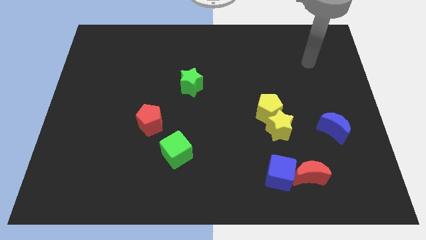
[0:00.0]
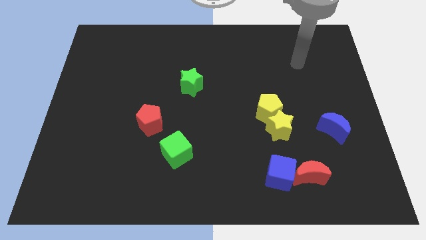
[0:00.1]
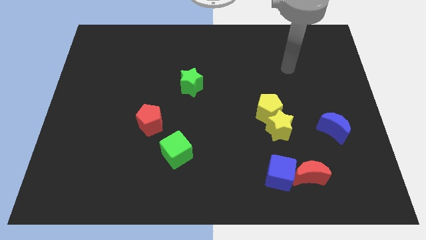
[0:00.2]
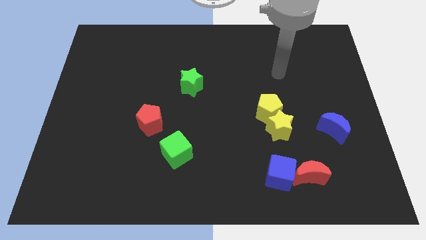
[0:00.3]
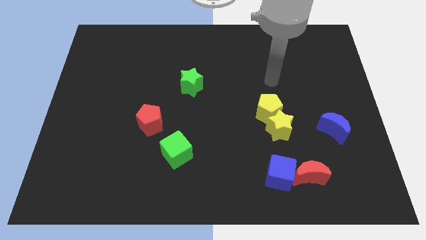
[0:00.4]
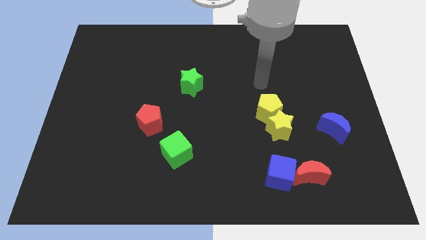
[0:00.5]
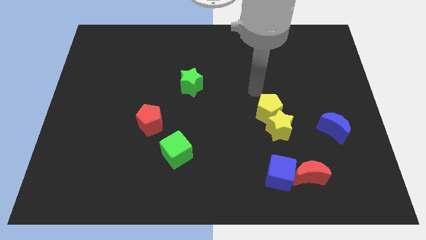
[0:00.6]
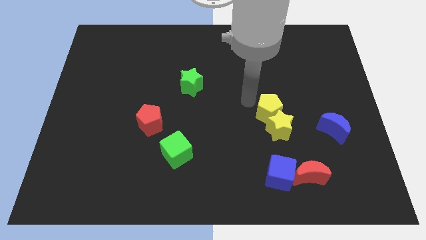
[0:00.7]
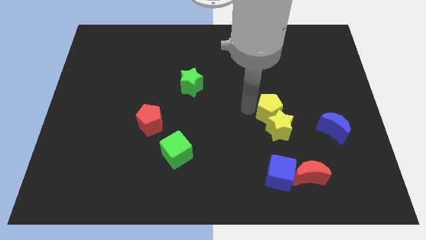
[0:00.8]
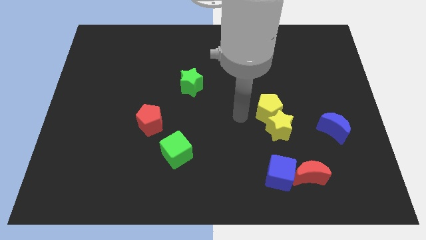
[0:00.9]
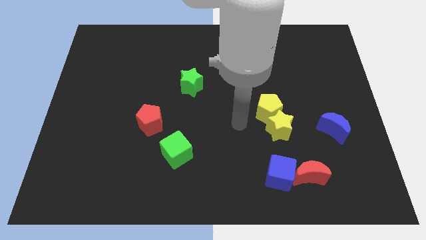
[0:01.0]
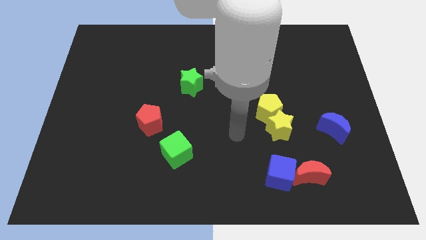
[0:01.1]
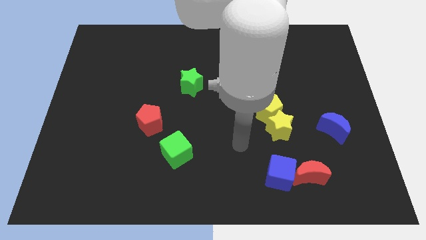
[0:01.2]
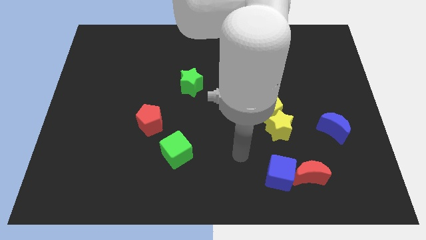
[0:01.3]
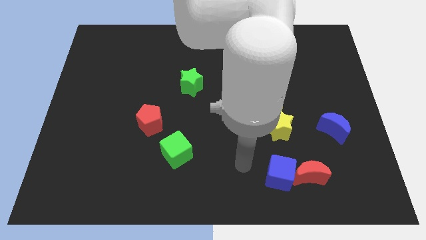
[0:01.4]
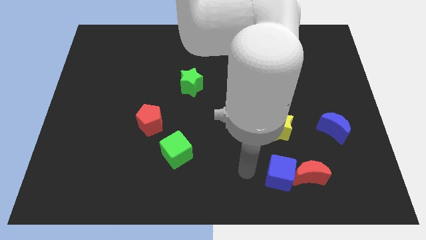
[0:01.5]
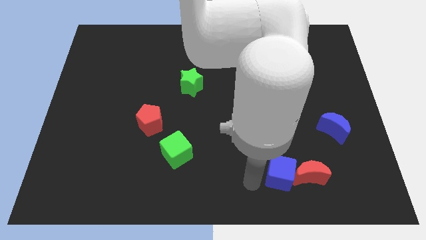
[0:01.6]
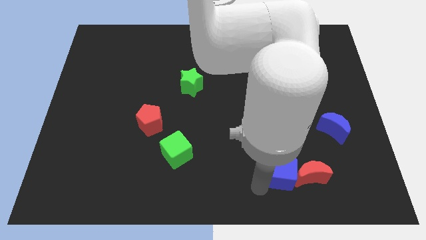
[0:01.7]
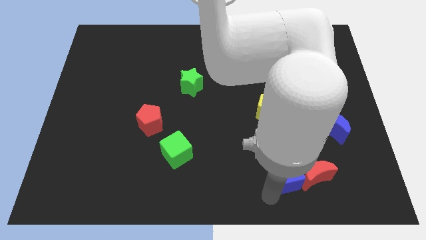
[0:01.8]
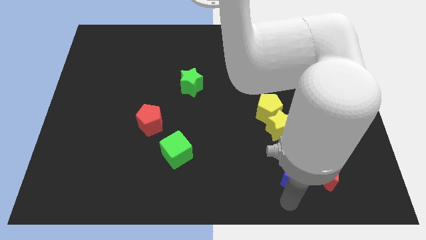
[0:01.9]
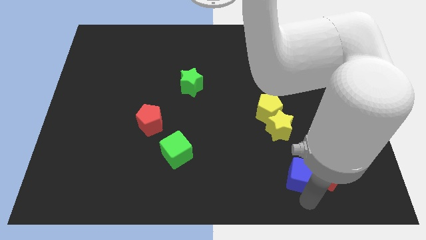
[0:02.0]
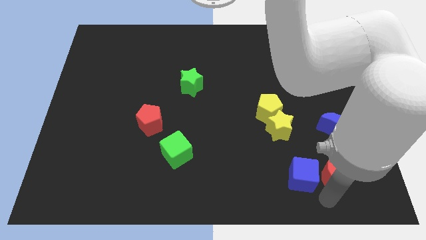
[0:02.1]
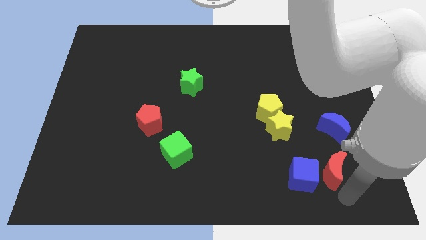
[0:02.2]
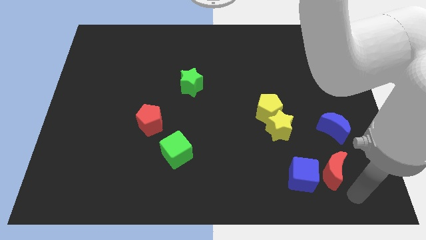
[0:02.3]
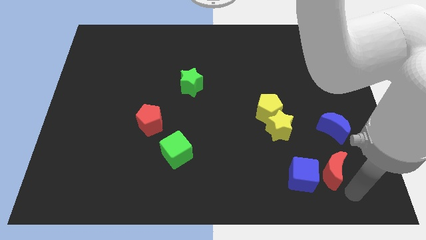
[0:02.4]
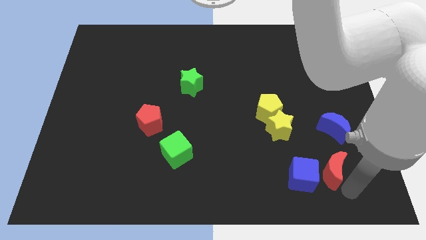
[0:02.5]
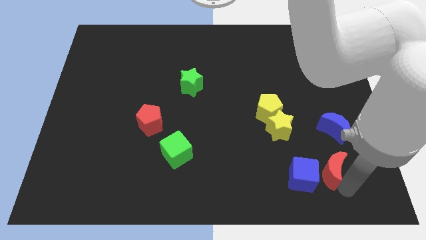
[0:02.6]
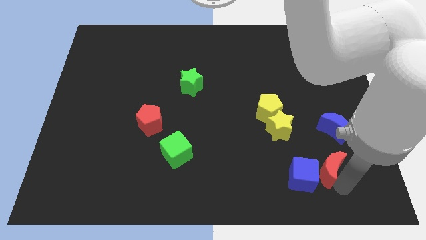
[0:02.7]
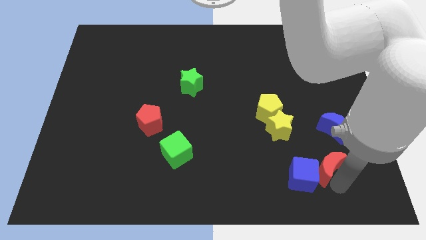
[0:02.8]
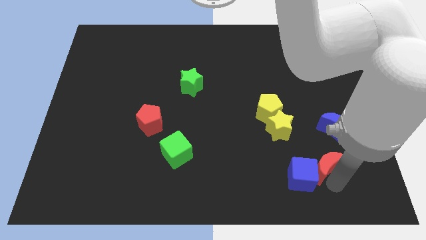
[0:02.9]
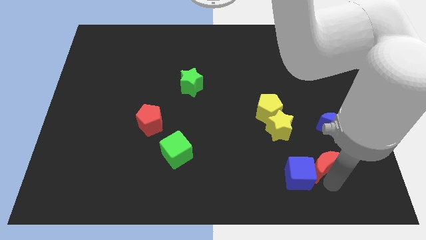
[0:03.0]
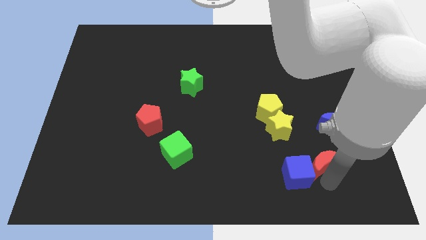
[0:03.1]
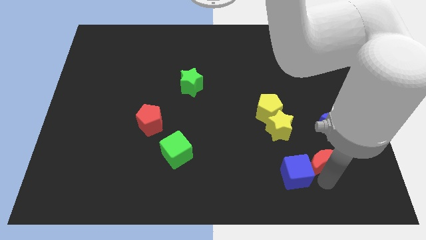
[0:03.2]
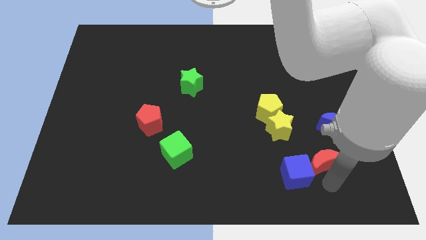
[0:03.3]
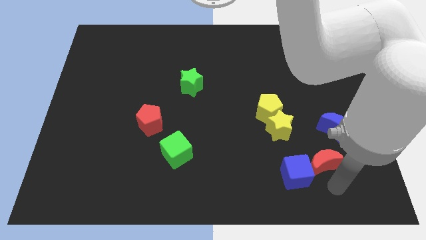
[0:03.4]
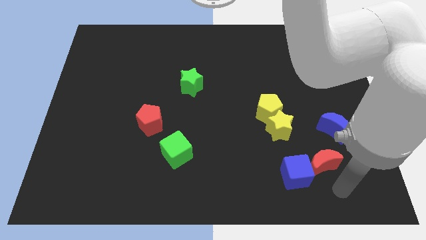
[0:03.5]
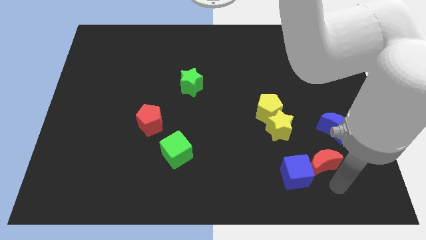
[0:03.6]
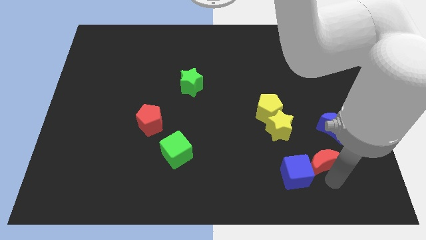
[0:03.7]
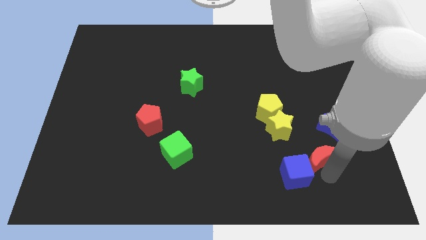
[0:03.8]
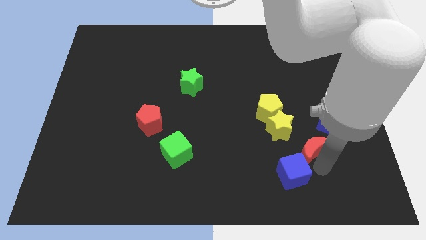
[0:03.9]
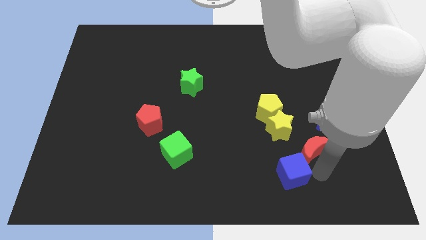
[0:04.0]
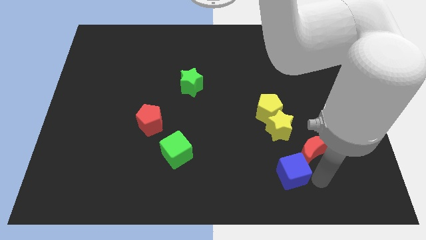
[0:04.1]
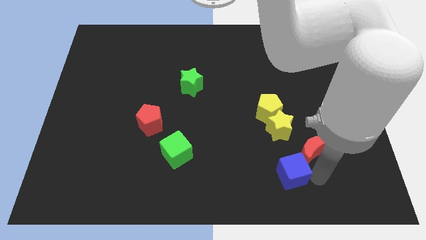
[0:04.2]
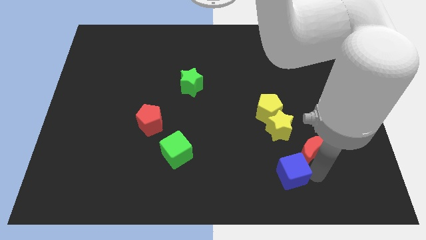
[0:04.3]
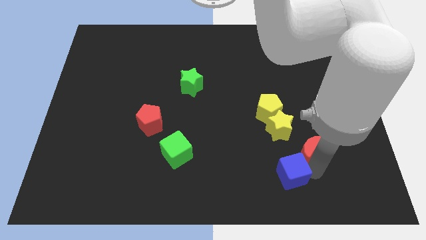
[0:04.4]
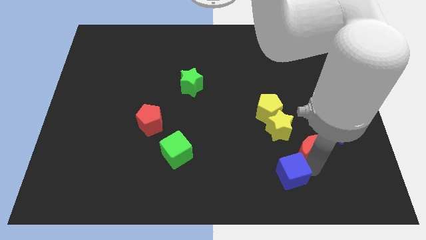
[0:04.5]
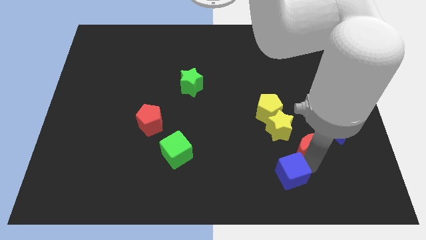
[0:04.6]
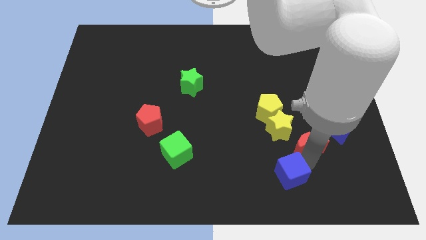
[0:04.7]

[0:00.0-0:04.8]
slide the red moon a little bit upwards

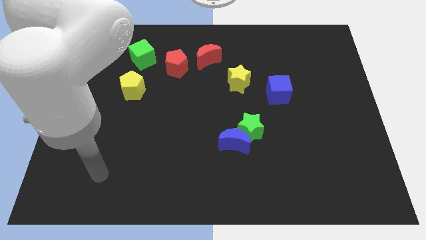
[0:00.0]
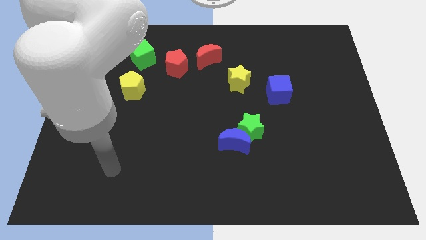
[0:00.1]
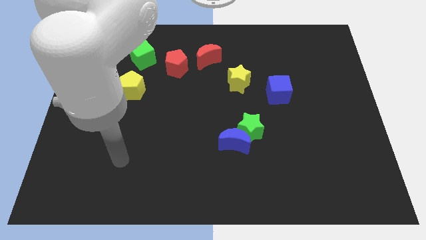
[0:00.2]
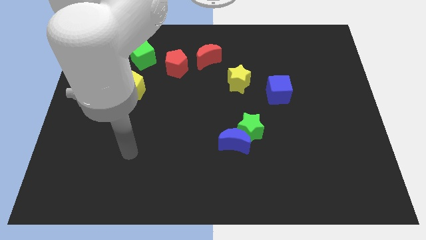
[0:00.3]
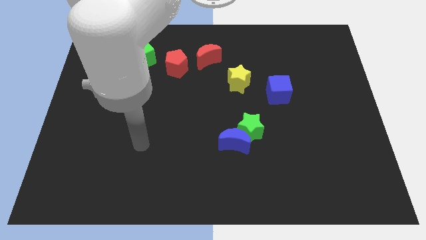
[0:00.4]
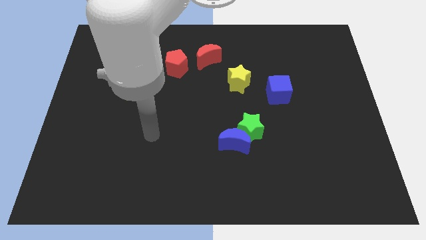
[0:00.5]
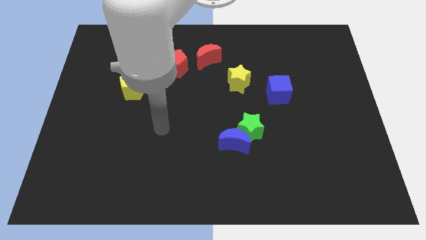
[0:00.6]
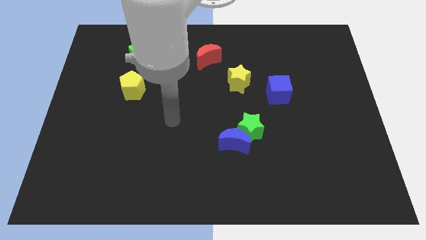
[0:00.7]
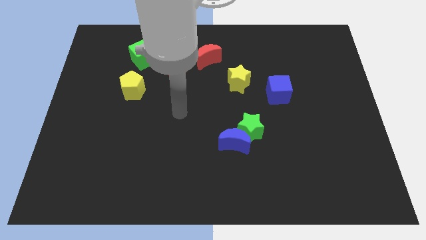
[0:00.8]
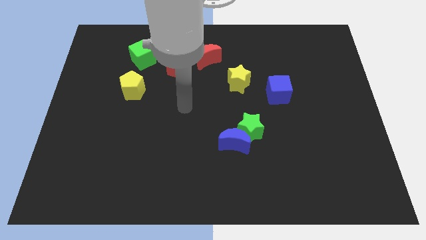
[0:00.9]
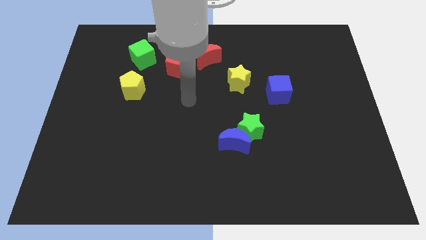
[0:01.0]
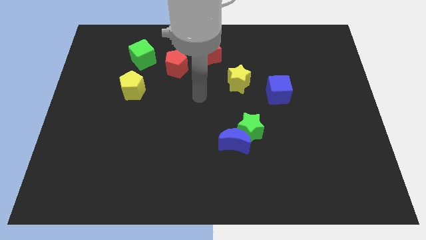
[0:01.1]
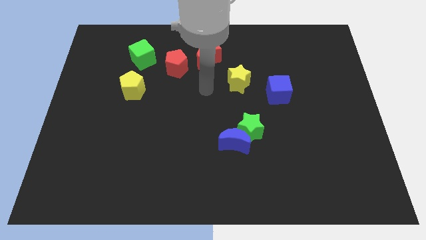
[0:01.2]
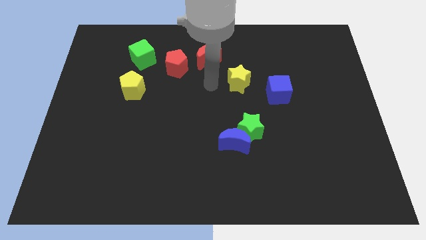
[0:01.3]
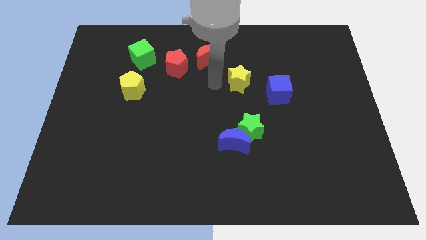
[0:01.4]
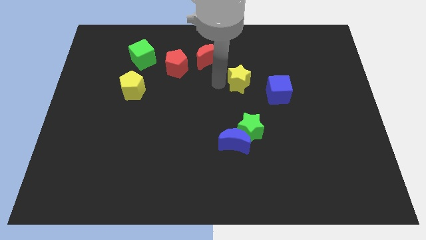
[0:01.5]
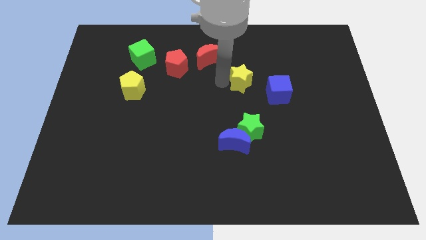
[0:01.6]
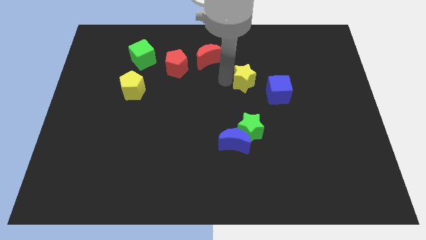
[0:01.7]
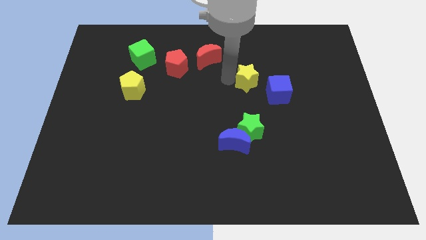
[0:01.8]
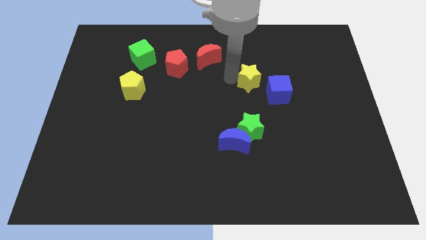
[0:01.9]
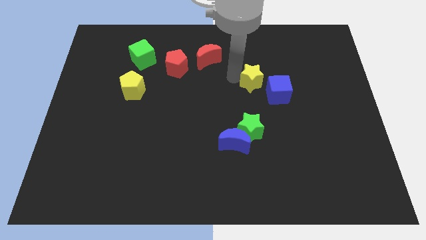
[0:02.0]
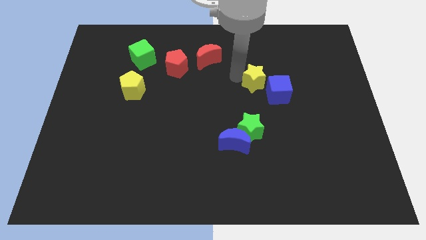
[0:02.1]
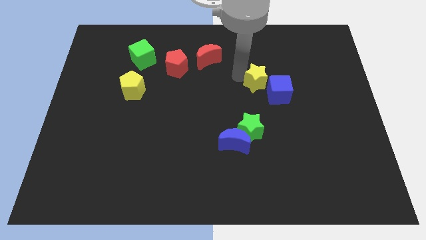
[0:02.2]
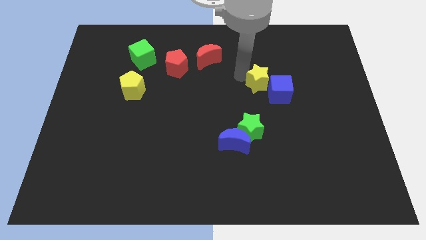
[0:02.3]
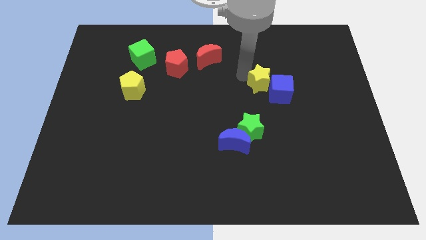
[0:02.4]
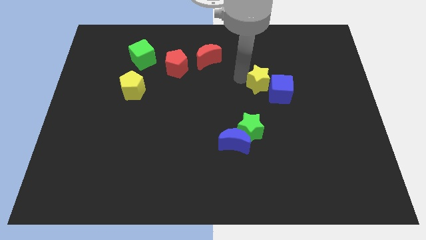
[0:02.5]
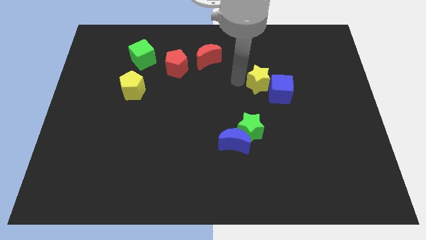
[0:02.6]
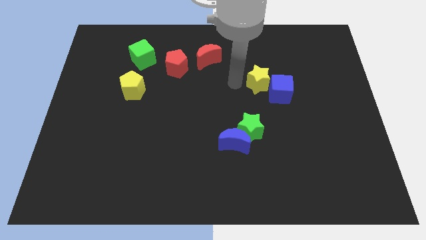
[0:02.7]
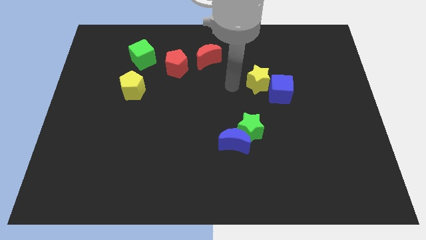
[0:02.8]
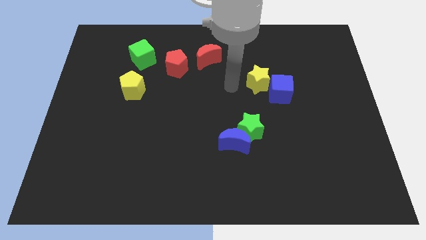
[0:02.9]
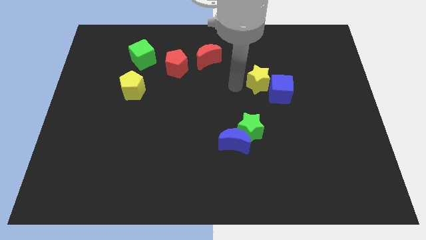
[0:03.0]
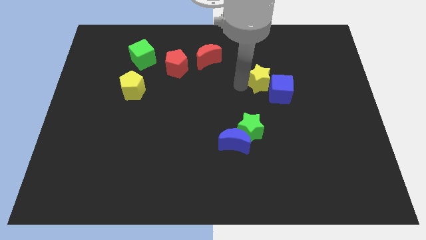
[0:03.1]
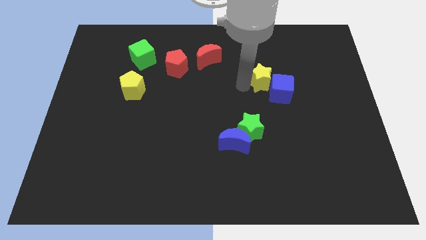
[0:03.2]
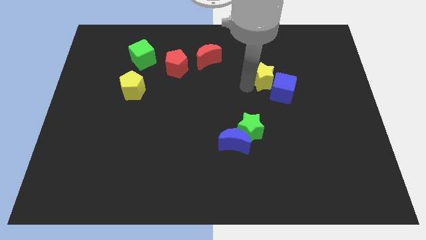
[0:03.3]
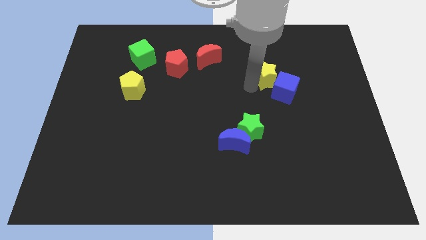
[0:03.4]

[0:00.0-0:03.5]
push the yellow star somewhat to the right
